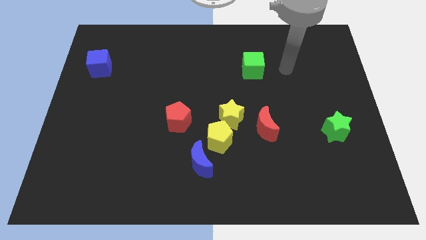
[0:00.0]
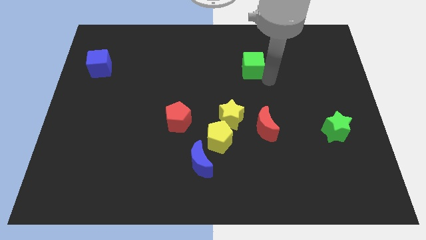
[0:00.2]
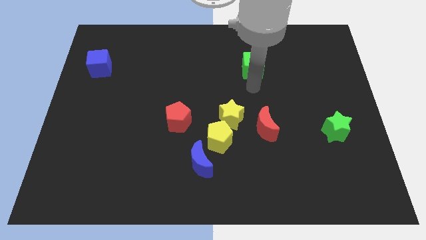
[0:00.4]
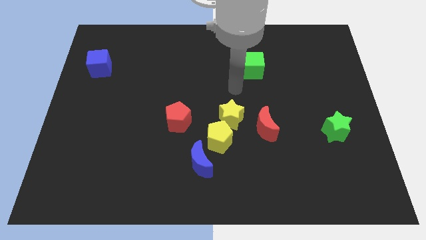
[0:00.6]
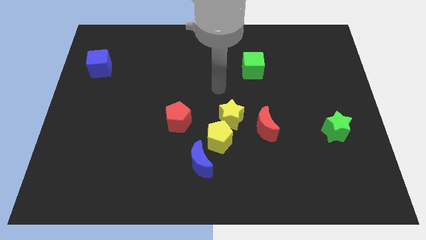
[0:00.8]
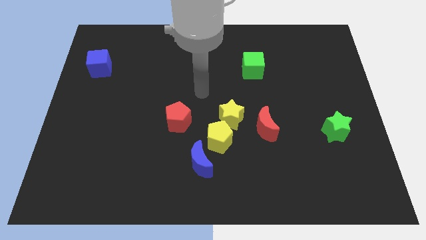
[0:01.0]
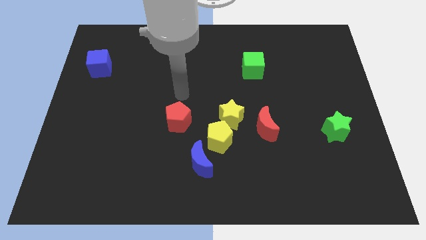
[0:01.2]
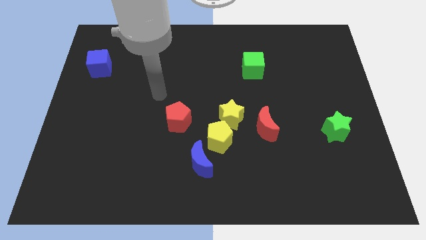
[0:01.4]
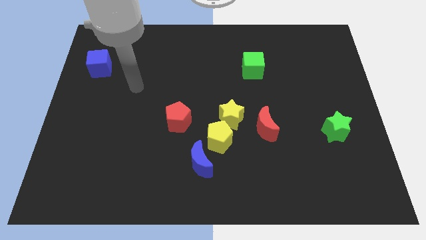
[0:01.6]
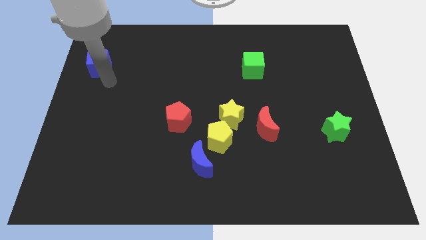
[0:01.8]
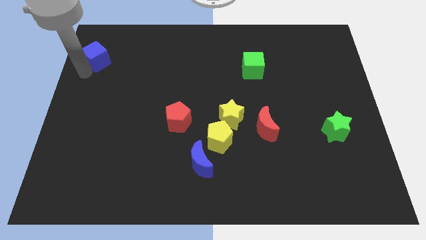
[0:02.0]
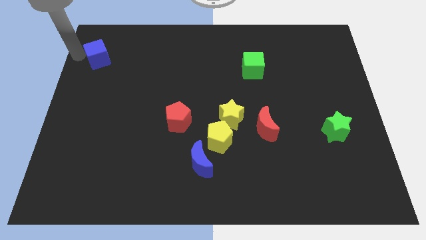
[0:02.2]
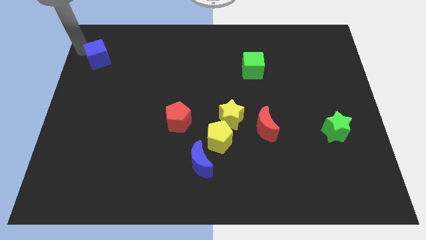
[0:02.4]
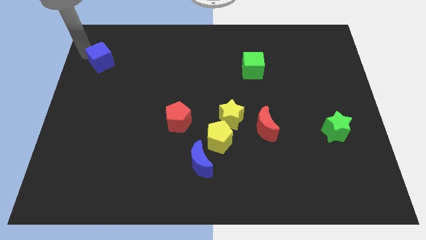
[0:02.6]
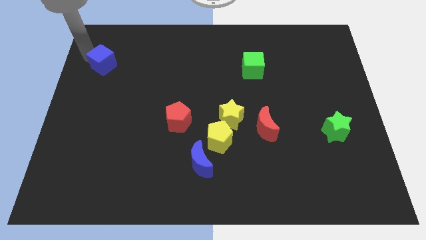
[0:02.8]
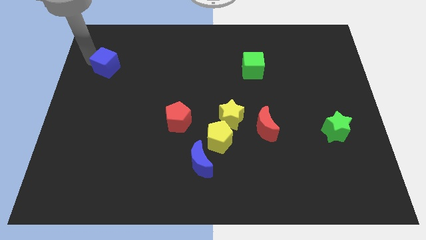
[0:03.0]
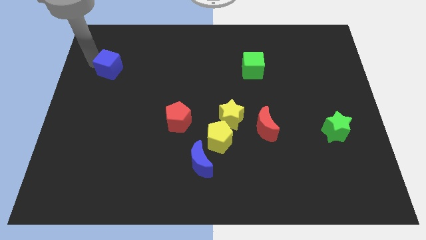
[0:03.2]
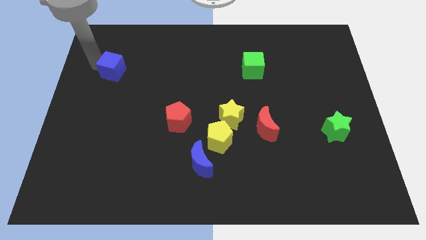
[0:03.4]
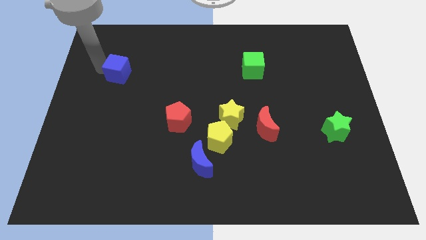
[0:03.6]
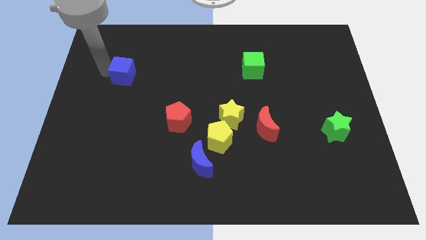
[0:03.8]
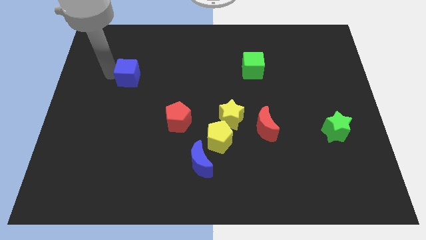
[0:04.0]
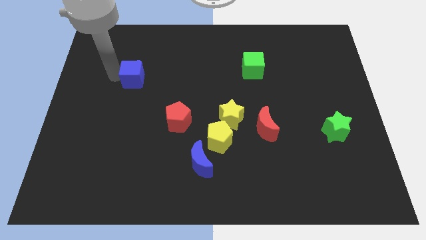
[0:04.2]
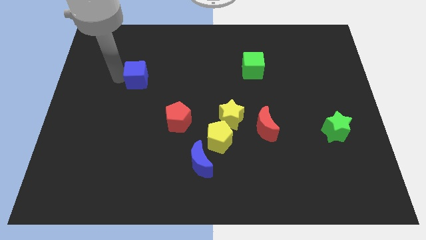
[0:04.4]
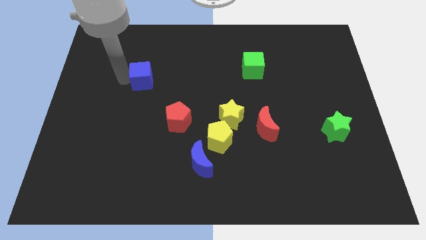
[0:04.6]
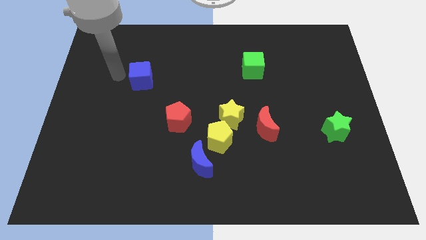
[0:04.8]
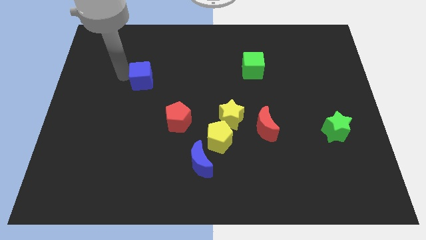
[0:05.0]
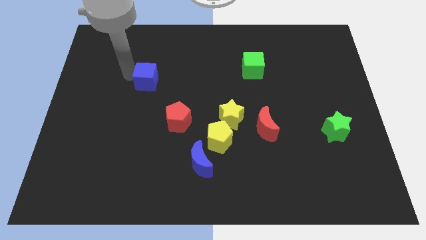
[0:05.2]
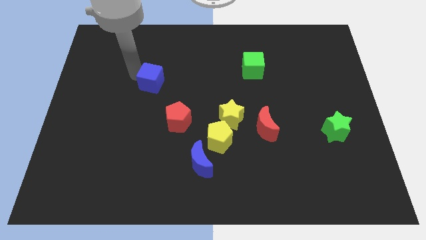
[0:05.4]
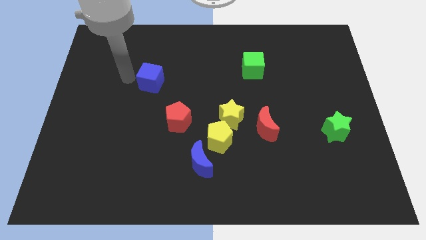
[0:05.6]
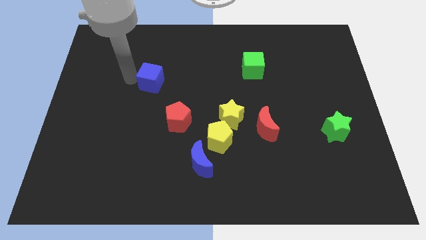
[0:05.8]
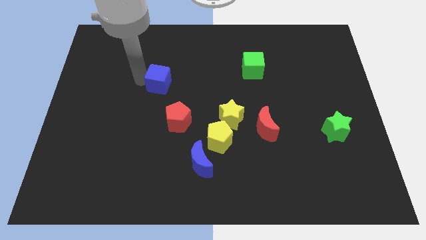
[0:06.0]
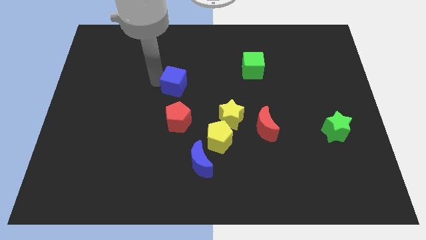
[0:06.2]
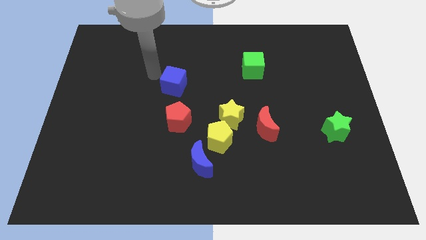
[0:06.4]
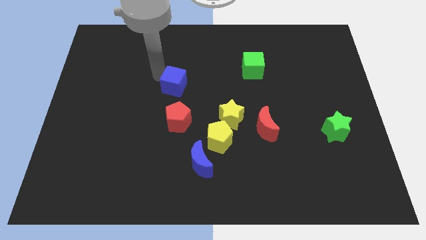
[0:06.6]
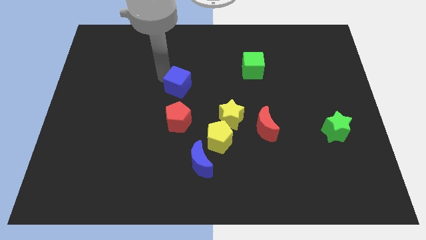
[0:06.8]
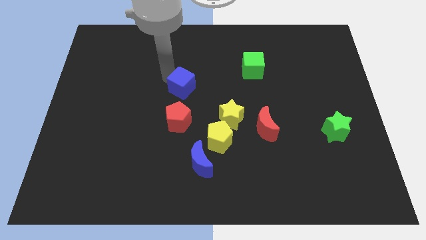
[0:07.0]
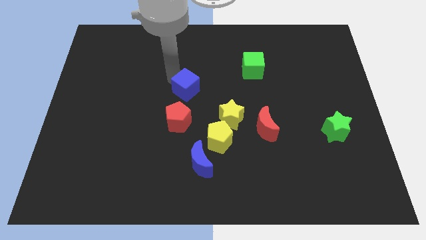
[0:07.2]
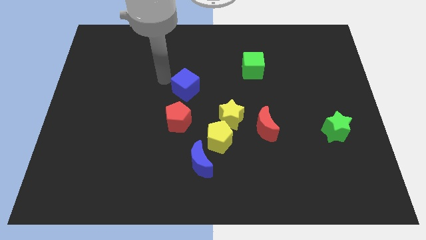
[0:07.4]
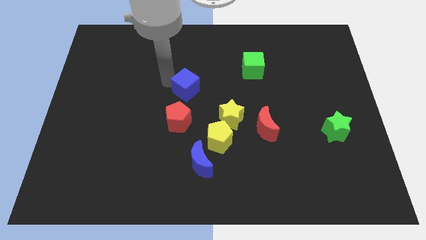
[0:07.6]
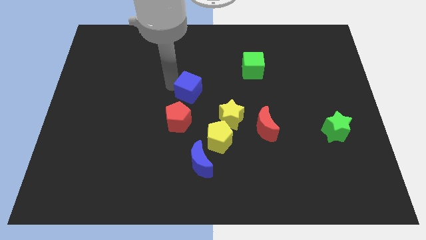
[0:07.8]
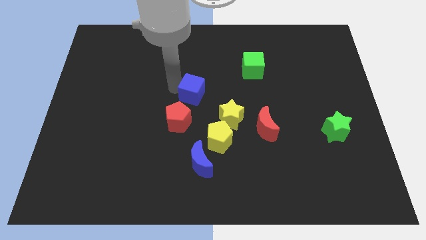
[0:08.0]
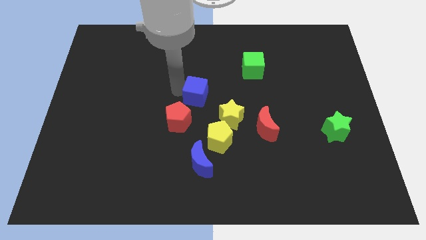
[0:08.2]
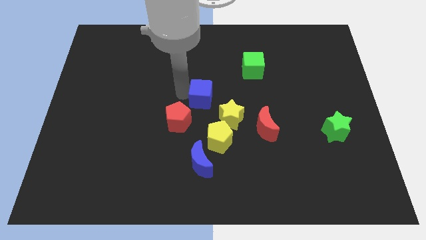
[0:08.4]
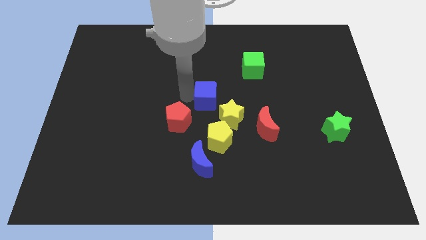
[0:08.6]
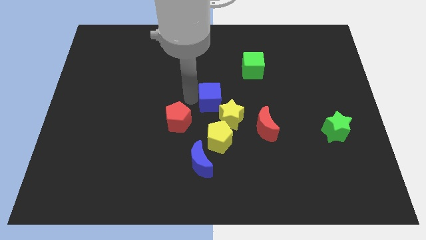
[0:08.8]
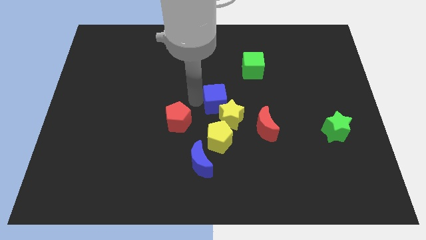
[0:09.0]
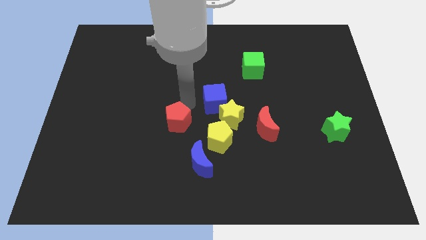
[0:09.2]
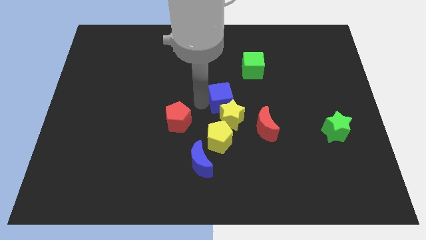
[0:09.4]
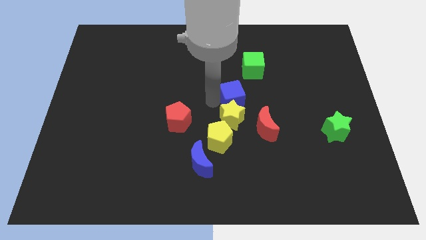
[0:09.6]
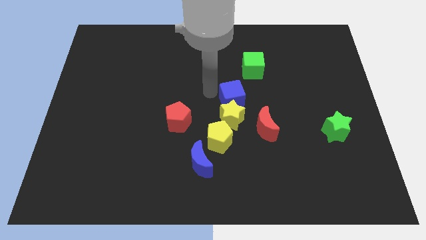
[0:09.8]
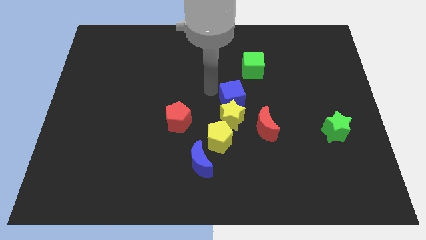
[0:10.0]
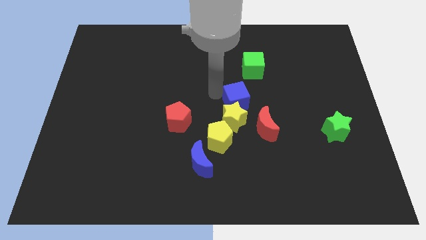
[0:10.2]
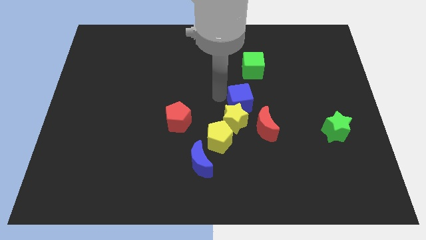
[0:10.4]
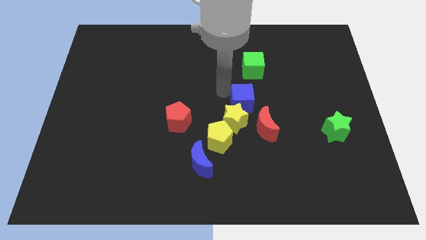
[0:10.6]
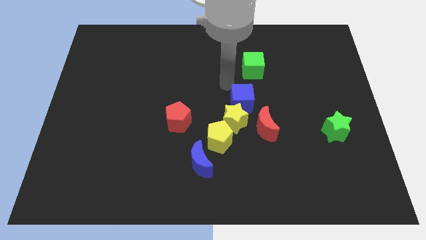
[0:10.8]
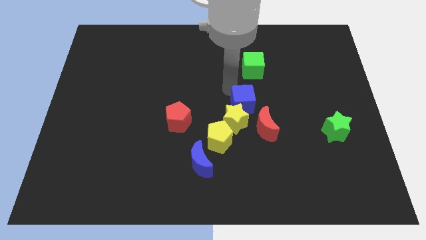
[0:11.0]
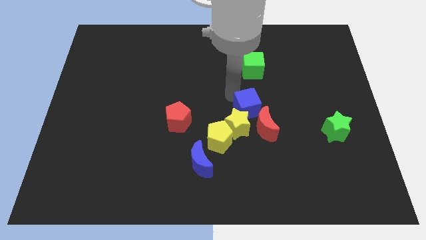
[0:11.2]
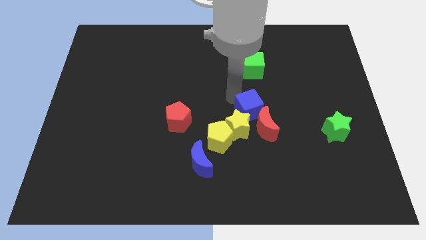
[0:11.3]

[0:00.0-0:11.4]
move the blue cube close to the red moon

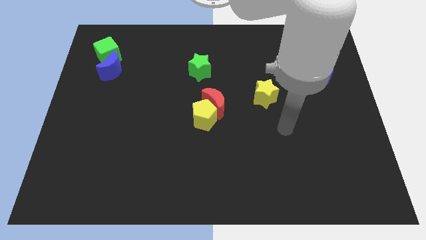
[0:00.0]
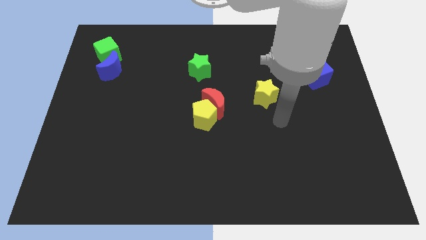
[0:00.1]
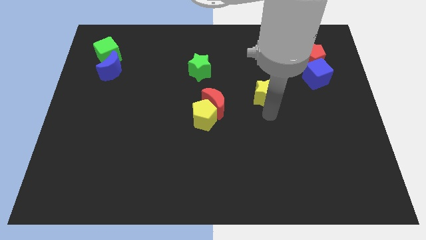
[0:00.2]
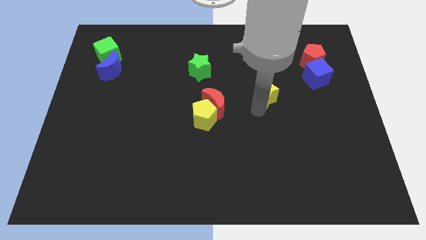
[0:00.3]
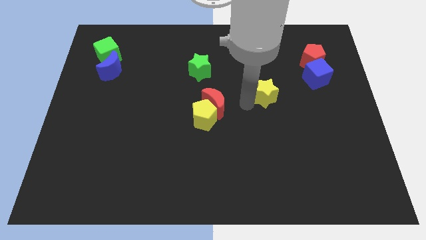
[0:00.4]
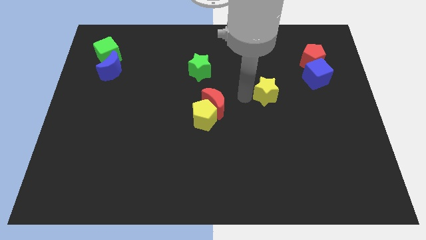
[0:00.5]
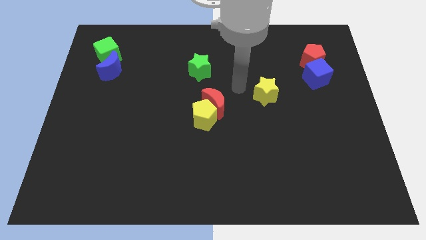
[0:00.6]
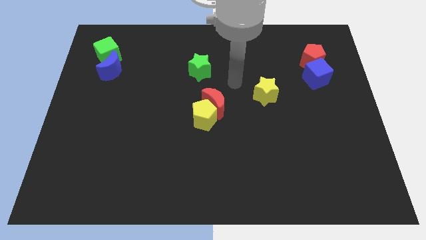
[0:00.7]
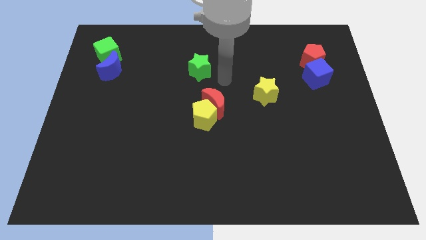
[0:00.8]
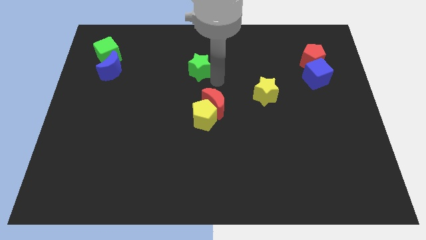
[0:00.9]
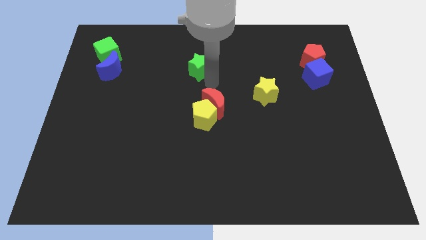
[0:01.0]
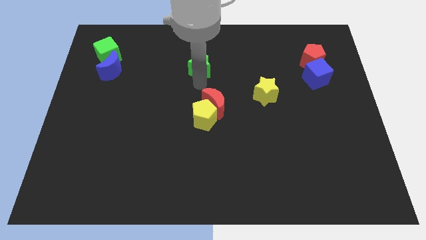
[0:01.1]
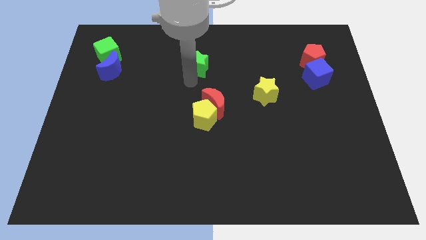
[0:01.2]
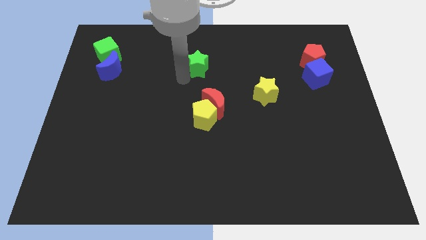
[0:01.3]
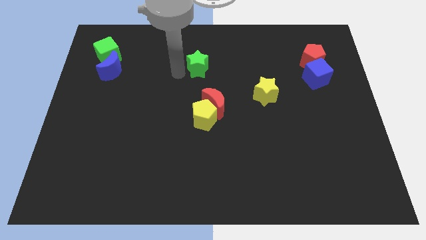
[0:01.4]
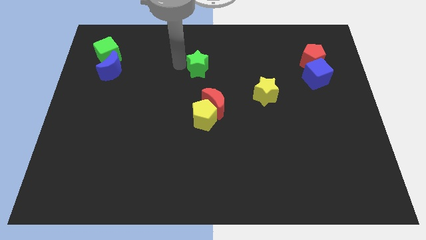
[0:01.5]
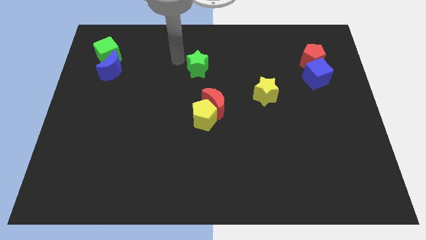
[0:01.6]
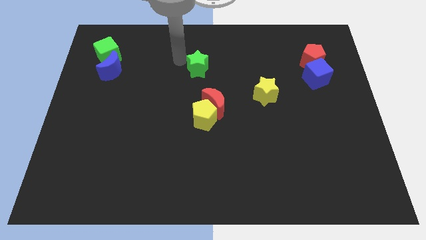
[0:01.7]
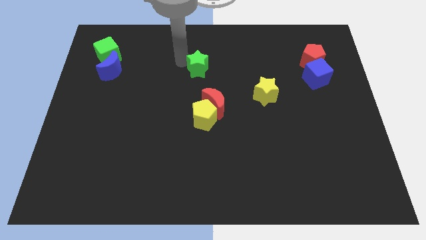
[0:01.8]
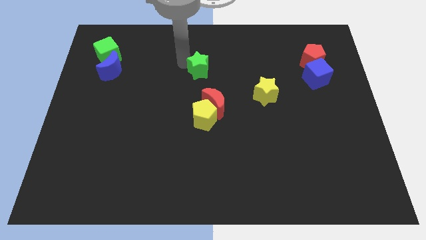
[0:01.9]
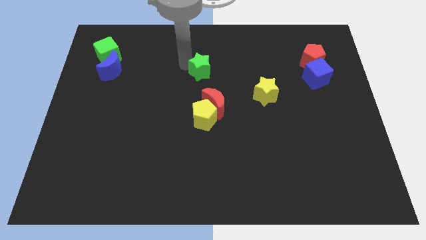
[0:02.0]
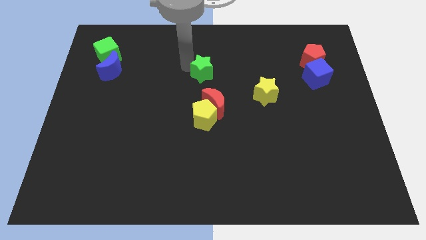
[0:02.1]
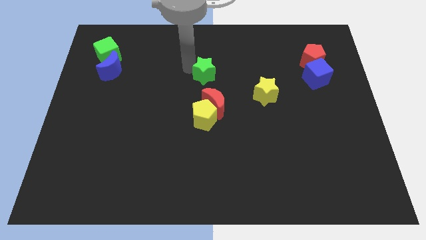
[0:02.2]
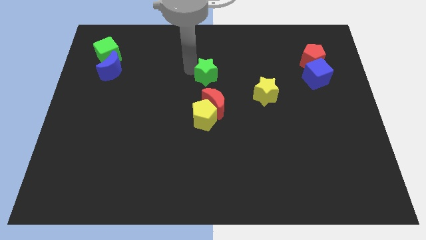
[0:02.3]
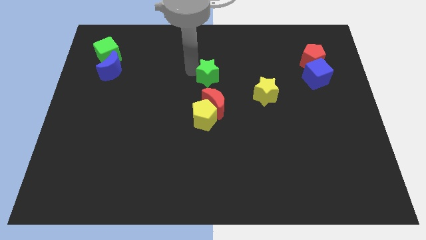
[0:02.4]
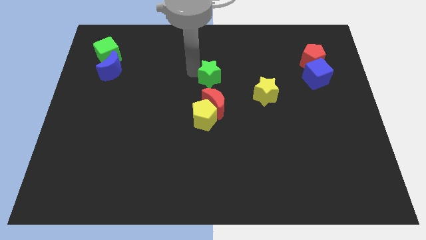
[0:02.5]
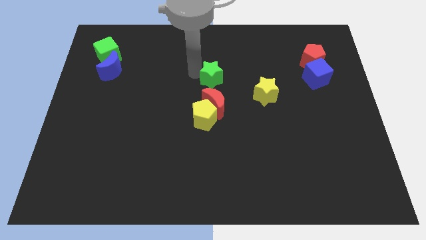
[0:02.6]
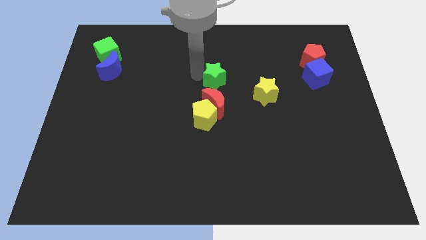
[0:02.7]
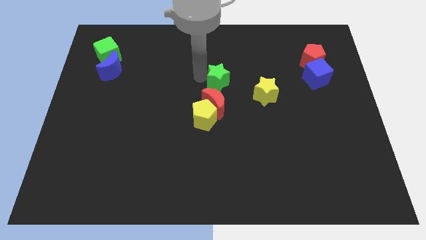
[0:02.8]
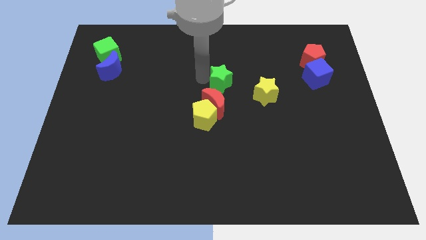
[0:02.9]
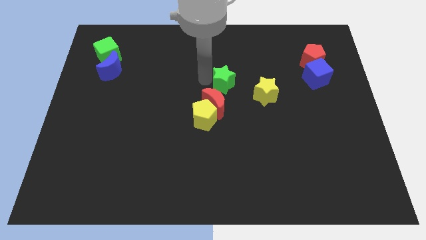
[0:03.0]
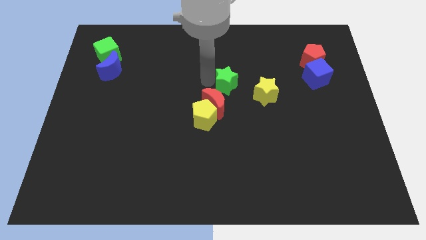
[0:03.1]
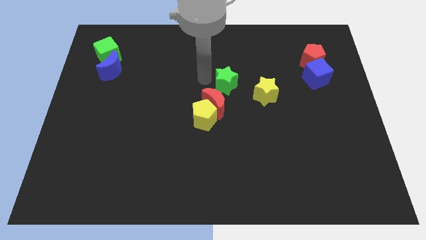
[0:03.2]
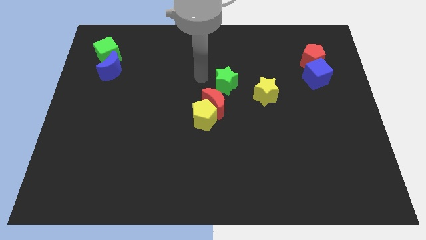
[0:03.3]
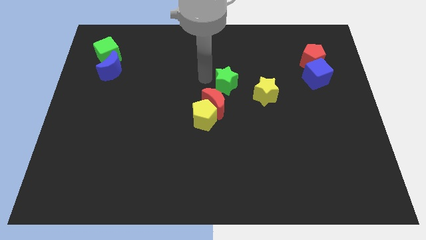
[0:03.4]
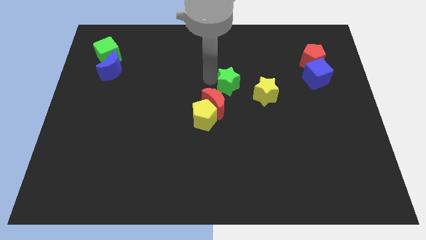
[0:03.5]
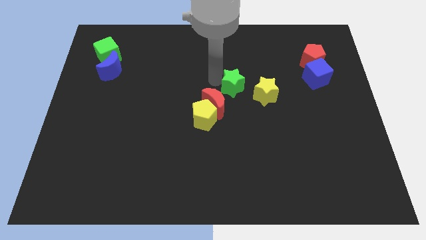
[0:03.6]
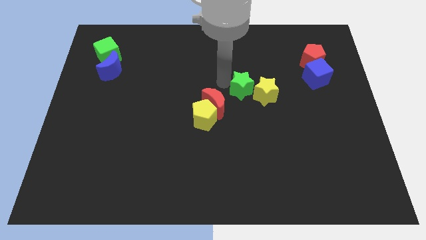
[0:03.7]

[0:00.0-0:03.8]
move the green star towards the yellow star
